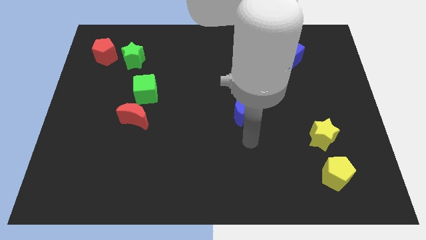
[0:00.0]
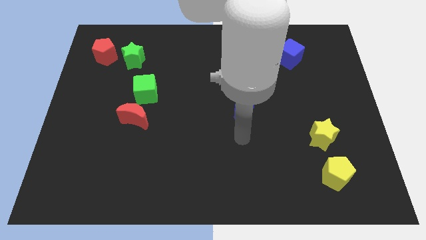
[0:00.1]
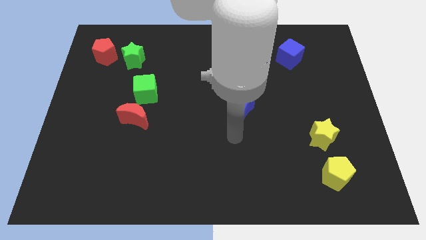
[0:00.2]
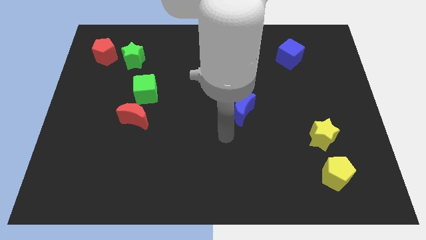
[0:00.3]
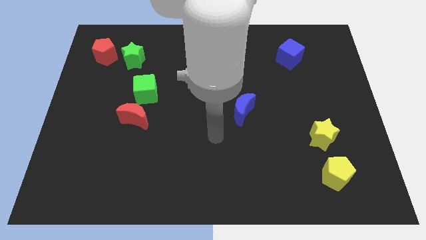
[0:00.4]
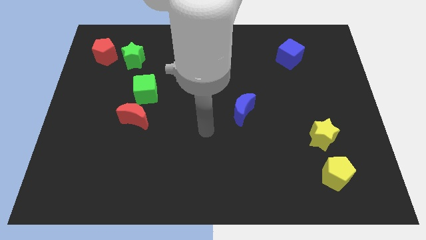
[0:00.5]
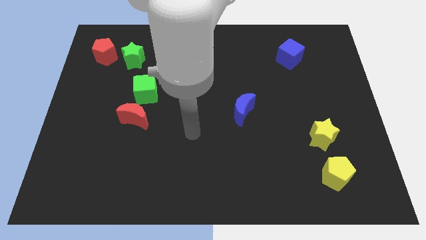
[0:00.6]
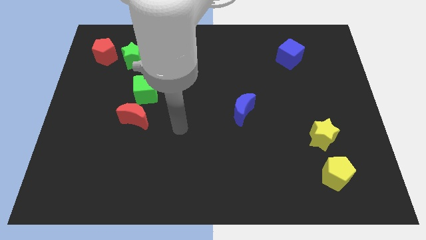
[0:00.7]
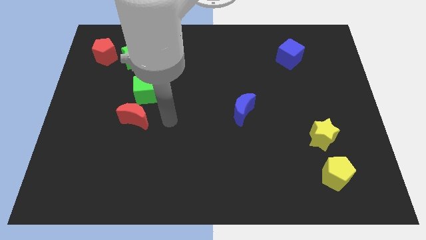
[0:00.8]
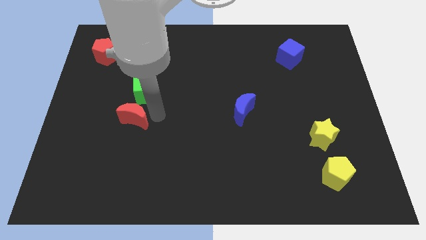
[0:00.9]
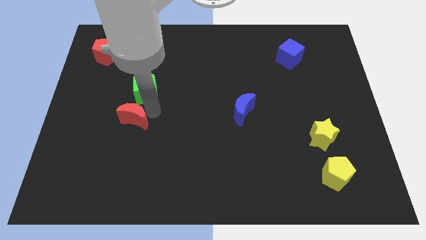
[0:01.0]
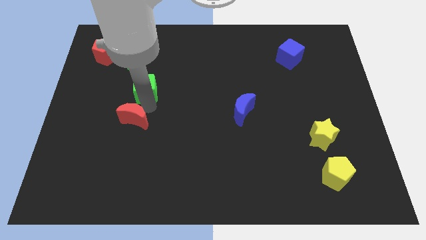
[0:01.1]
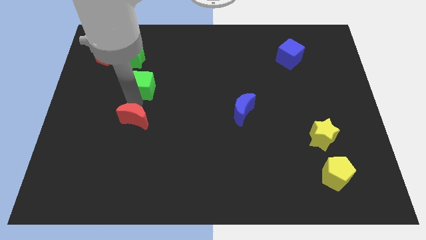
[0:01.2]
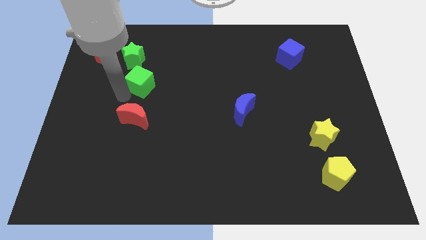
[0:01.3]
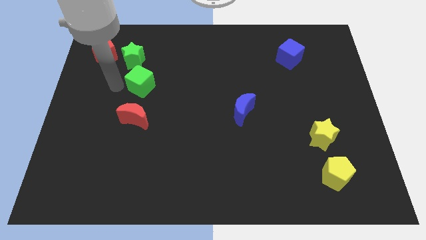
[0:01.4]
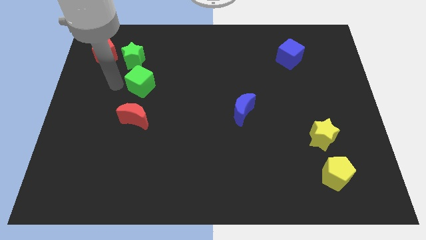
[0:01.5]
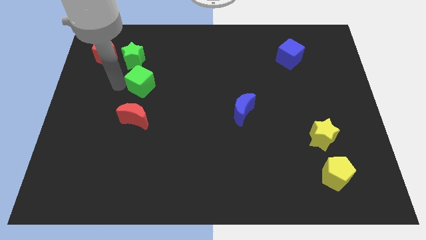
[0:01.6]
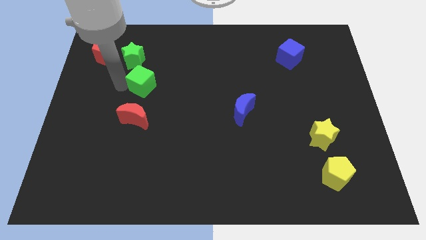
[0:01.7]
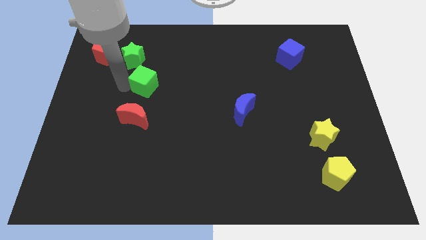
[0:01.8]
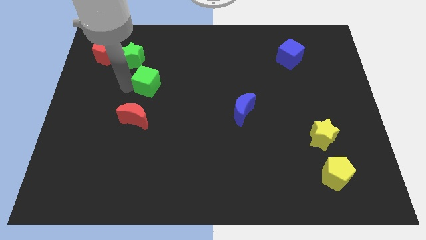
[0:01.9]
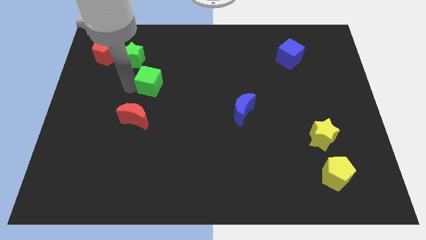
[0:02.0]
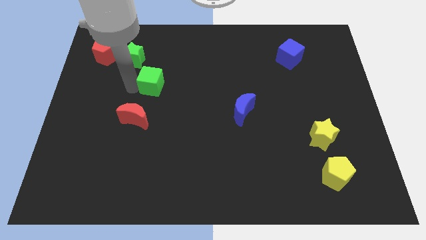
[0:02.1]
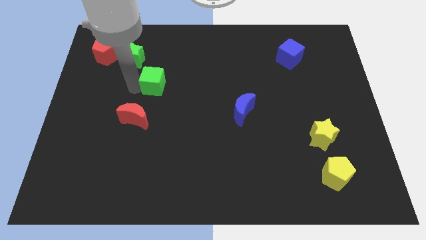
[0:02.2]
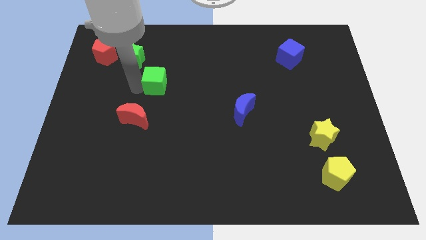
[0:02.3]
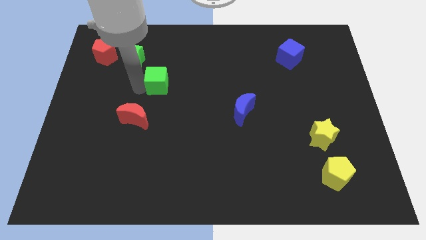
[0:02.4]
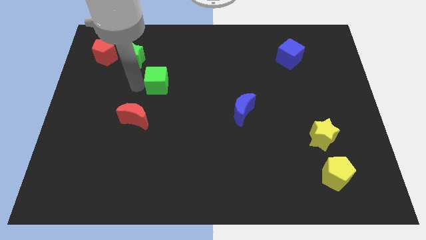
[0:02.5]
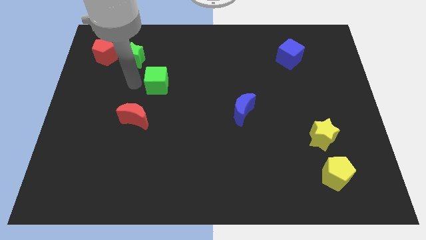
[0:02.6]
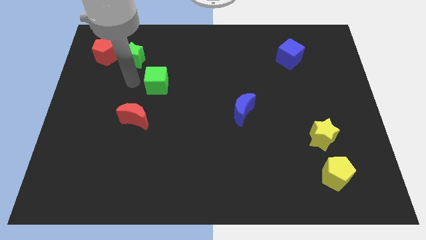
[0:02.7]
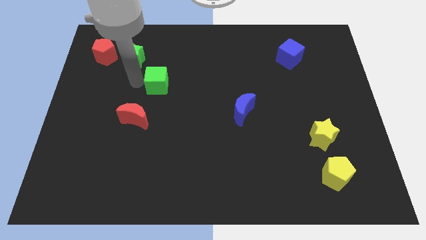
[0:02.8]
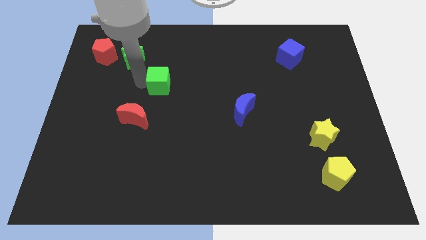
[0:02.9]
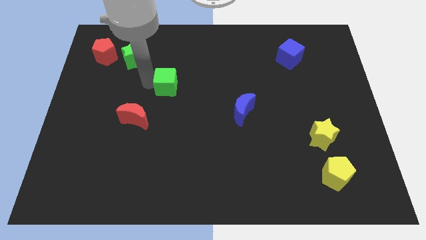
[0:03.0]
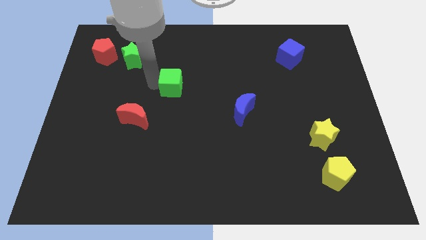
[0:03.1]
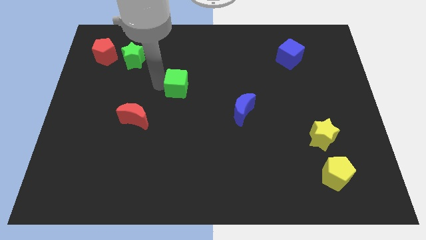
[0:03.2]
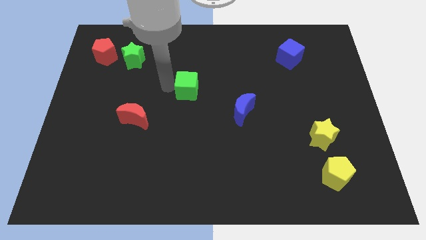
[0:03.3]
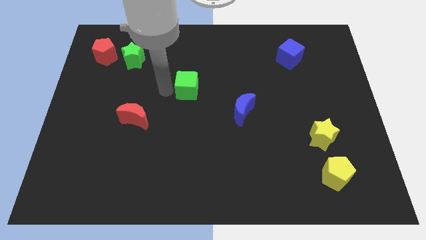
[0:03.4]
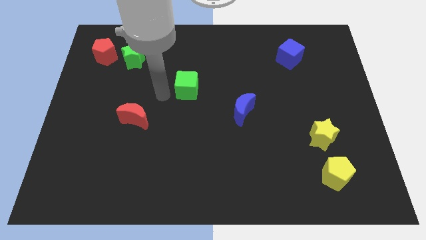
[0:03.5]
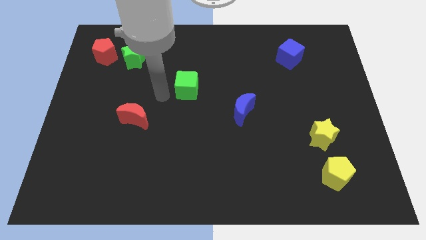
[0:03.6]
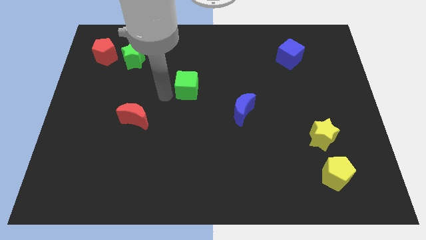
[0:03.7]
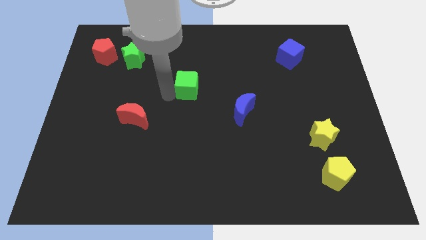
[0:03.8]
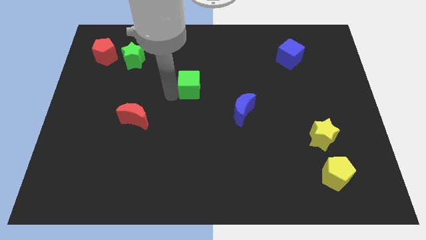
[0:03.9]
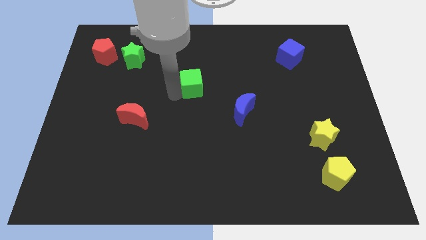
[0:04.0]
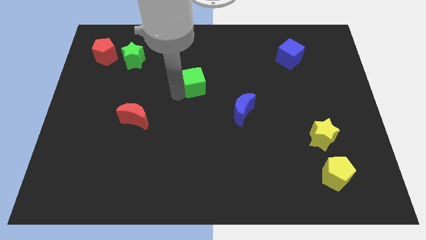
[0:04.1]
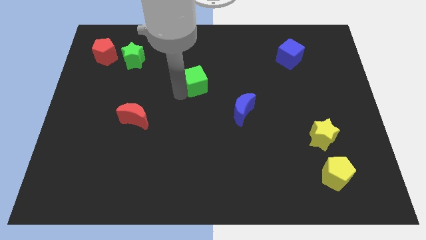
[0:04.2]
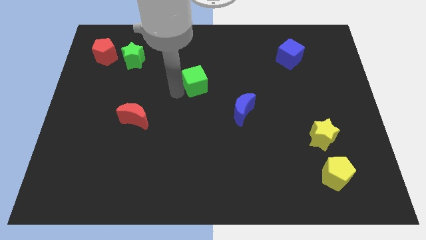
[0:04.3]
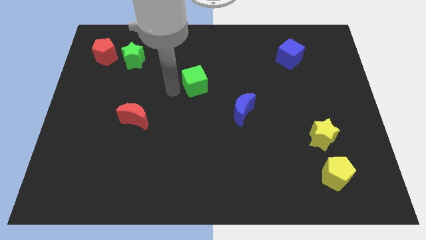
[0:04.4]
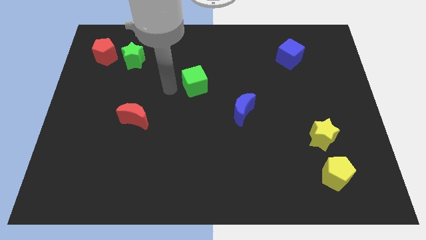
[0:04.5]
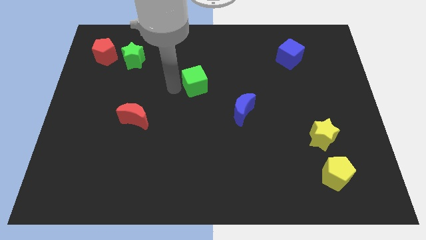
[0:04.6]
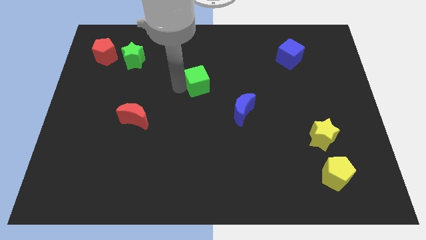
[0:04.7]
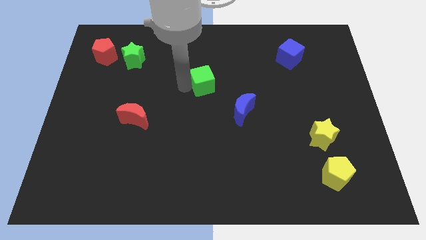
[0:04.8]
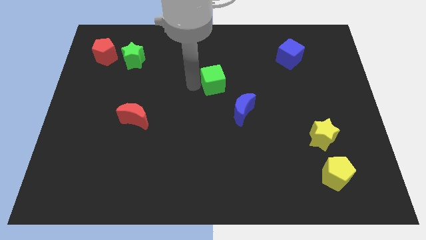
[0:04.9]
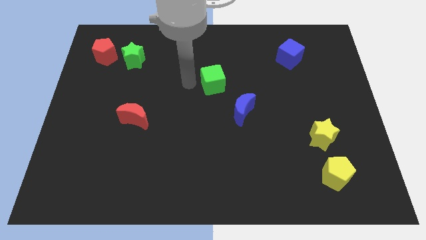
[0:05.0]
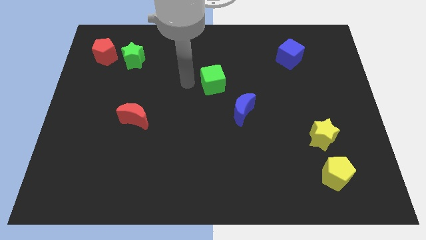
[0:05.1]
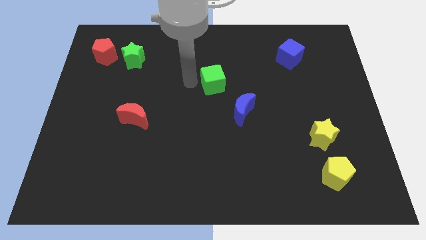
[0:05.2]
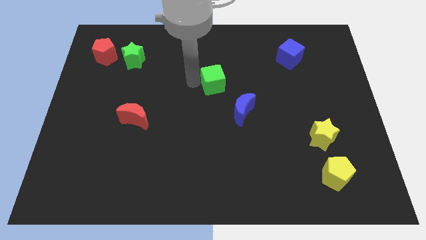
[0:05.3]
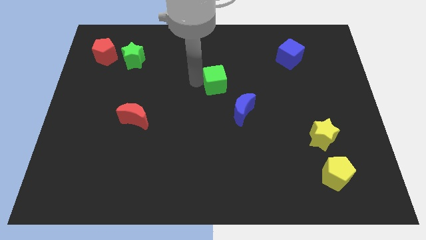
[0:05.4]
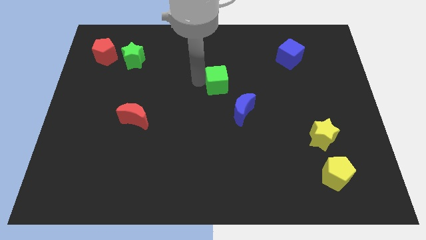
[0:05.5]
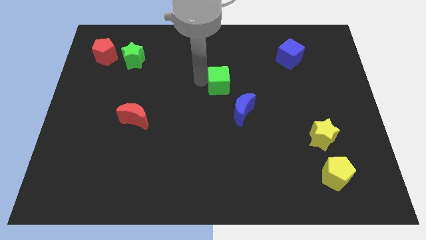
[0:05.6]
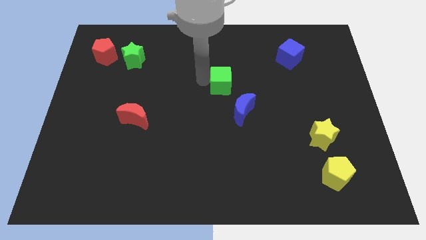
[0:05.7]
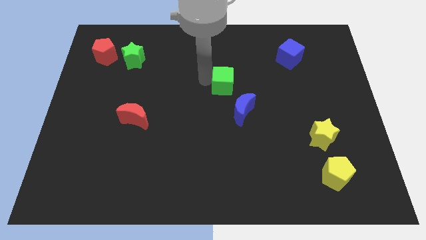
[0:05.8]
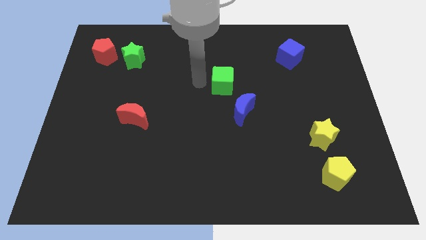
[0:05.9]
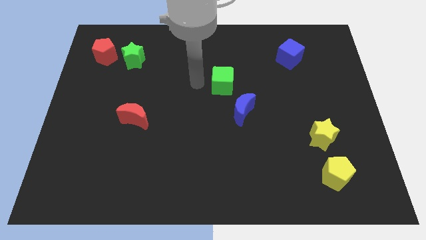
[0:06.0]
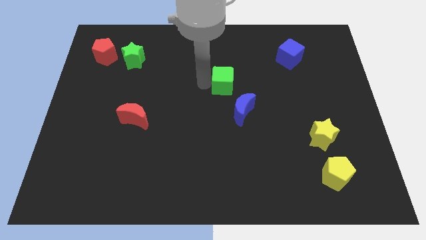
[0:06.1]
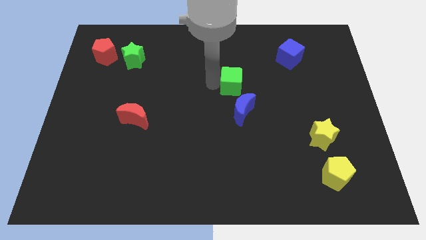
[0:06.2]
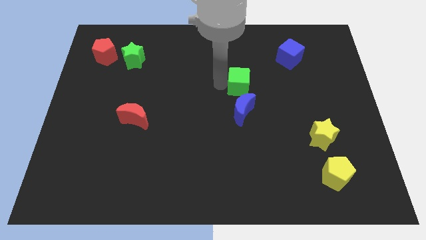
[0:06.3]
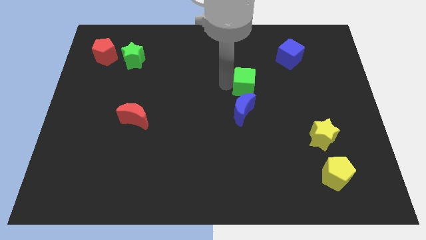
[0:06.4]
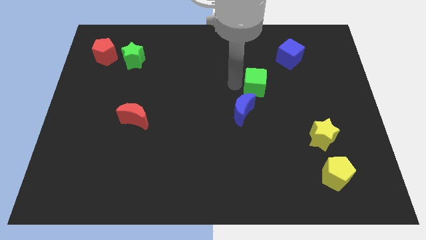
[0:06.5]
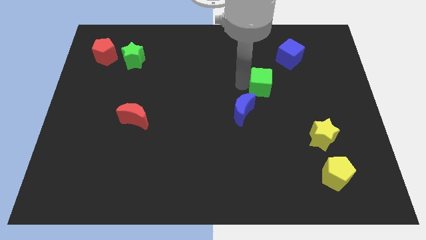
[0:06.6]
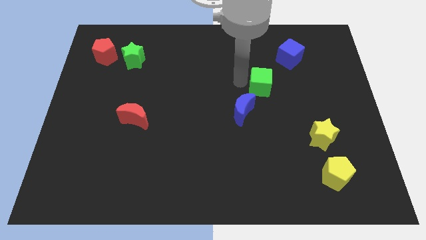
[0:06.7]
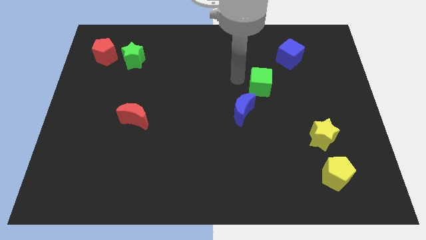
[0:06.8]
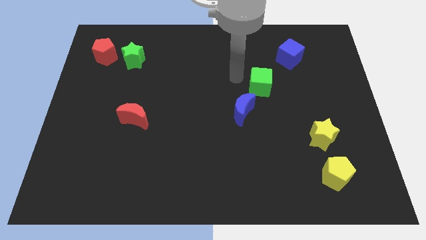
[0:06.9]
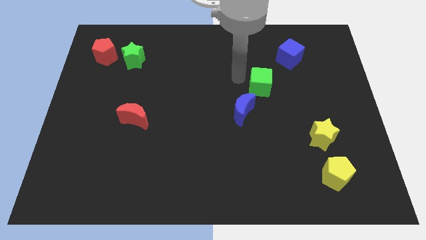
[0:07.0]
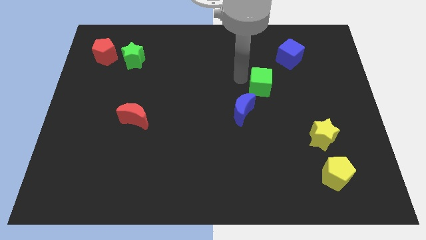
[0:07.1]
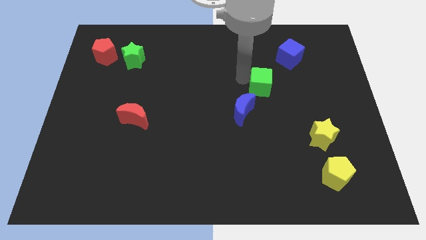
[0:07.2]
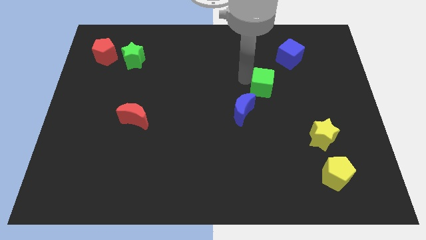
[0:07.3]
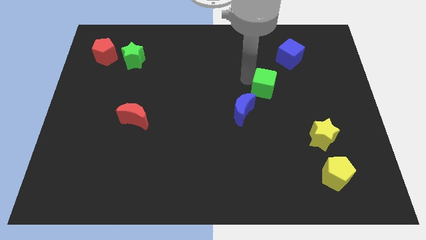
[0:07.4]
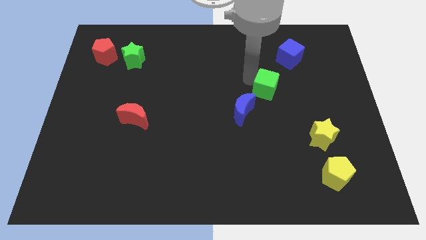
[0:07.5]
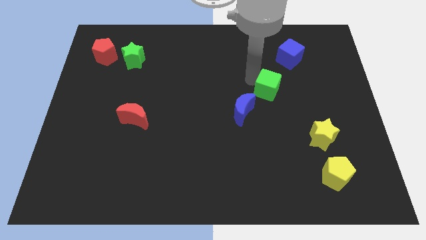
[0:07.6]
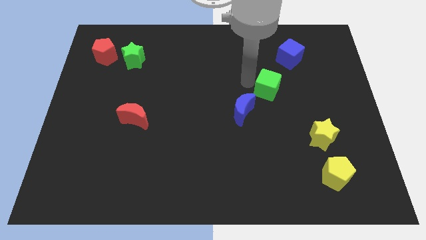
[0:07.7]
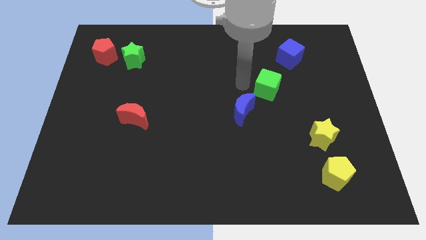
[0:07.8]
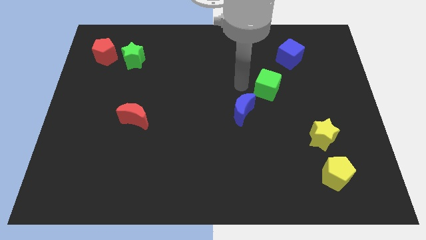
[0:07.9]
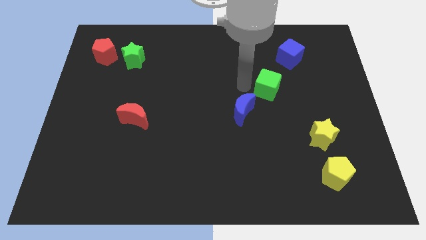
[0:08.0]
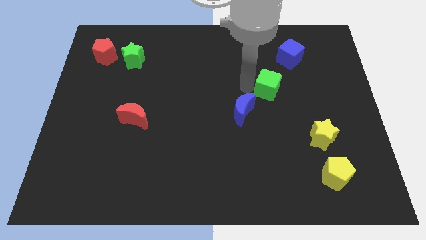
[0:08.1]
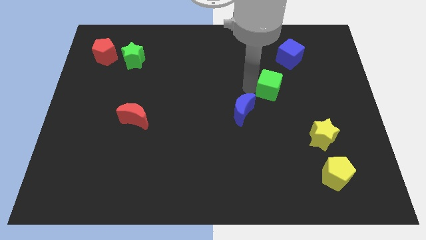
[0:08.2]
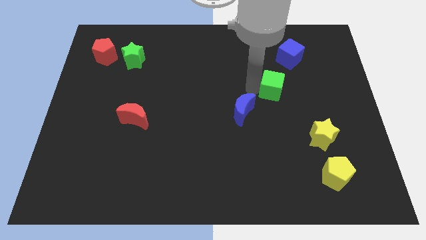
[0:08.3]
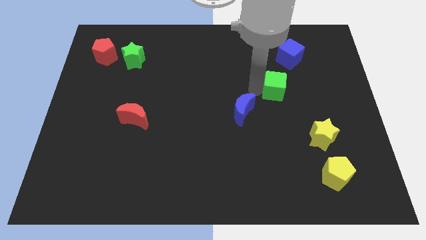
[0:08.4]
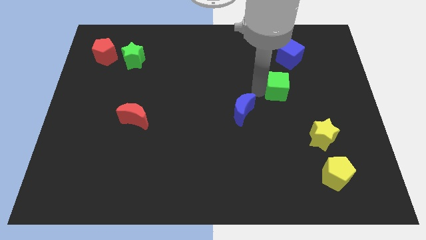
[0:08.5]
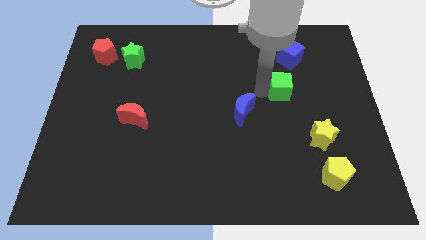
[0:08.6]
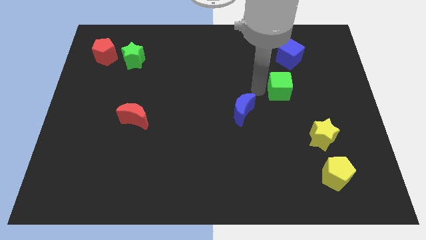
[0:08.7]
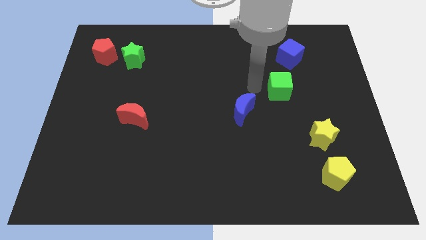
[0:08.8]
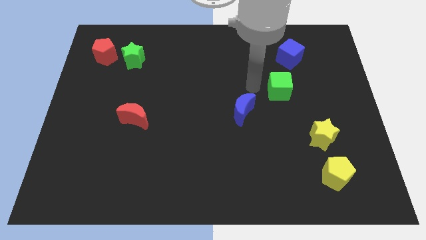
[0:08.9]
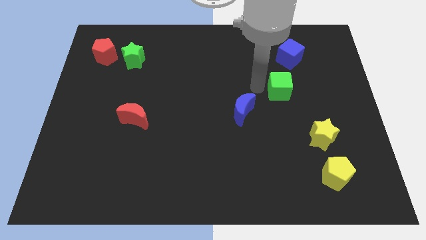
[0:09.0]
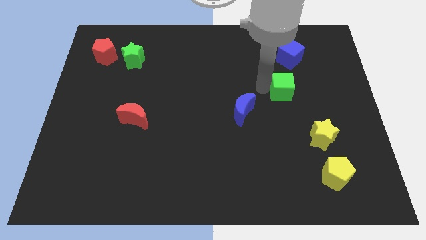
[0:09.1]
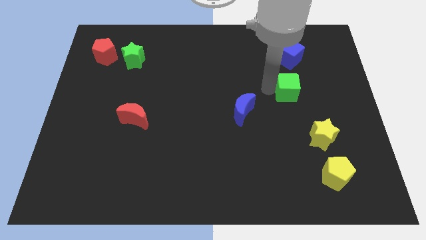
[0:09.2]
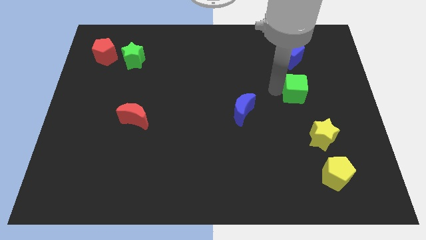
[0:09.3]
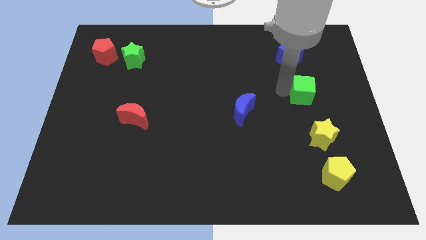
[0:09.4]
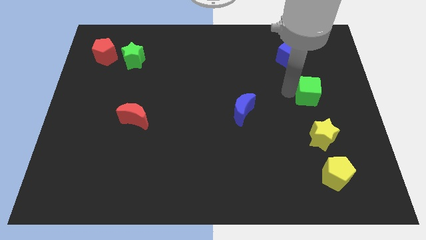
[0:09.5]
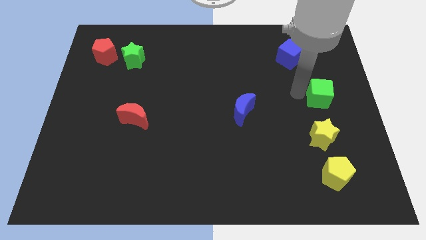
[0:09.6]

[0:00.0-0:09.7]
move the green cube to the center right
